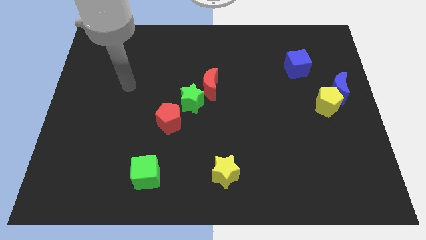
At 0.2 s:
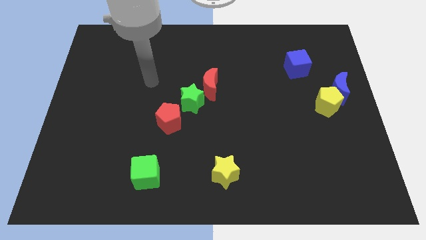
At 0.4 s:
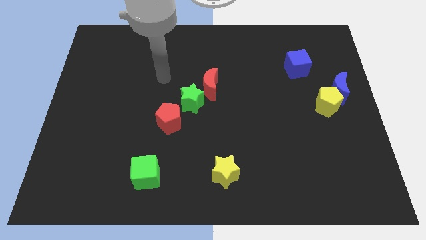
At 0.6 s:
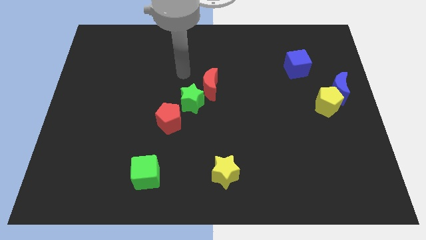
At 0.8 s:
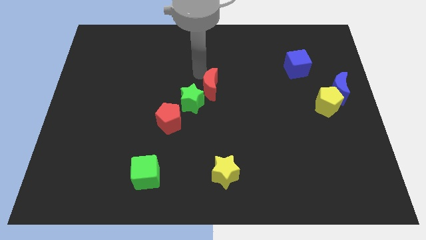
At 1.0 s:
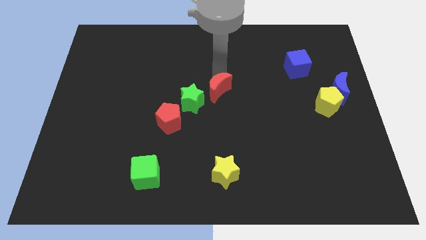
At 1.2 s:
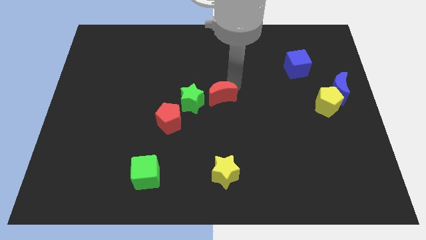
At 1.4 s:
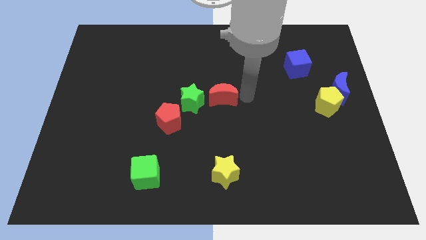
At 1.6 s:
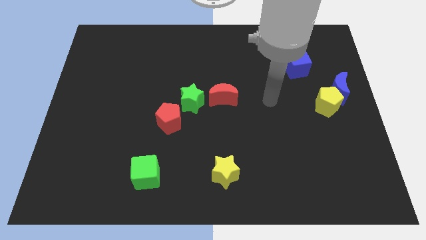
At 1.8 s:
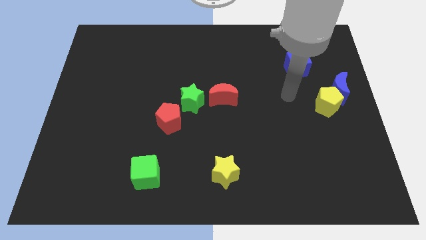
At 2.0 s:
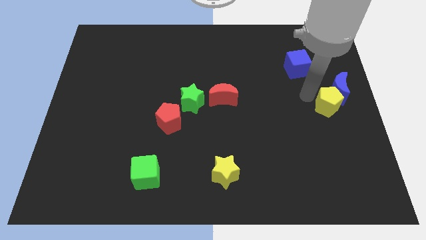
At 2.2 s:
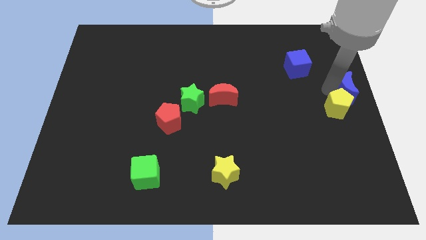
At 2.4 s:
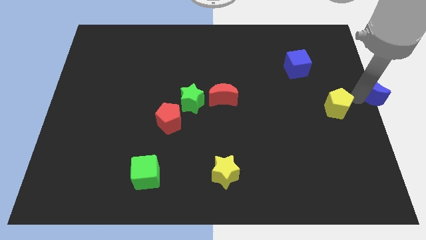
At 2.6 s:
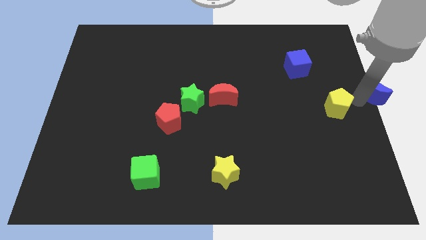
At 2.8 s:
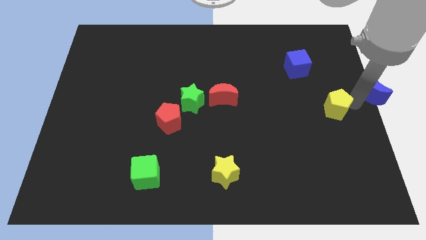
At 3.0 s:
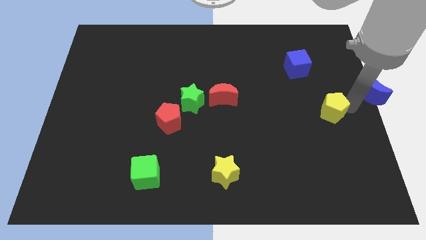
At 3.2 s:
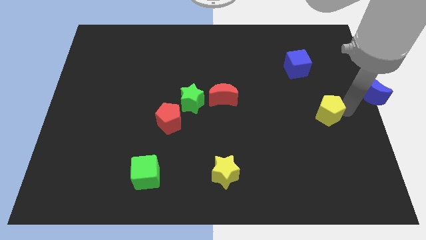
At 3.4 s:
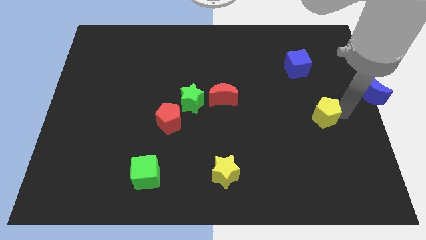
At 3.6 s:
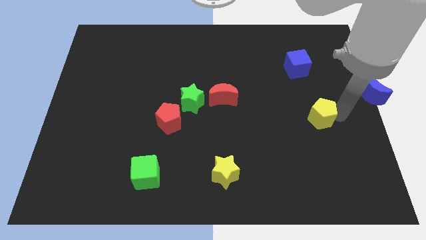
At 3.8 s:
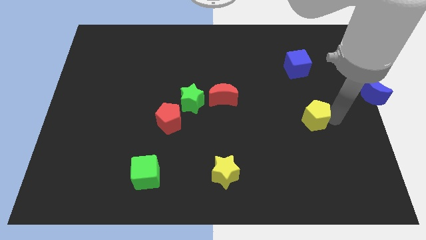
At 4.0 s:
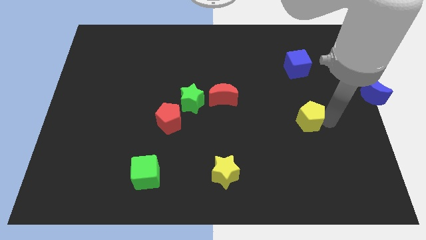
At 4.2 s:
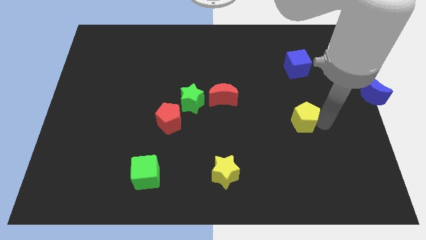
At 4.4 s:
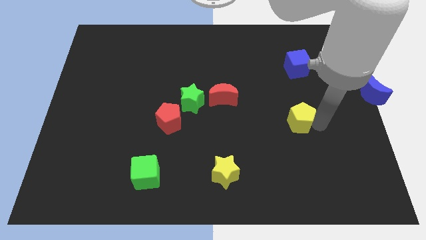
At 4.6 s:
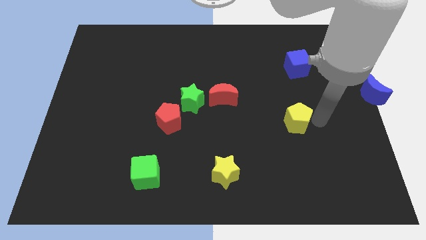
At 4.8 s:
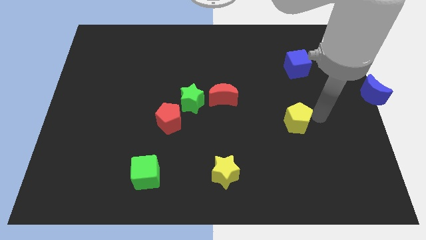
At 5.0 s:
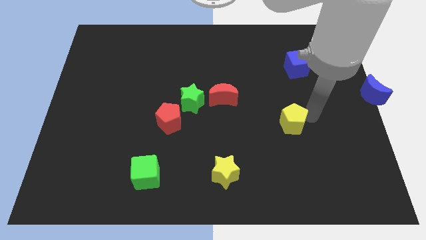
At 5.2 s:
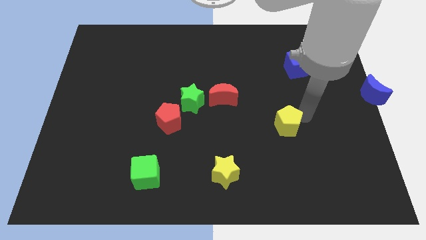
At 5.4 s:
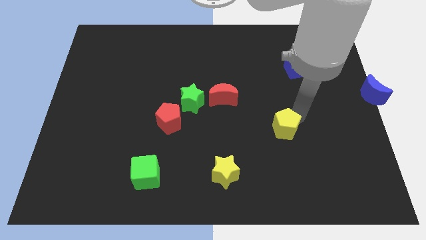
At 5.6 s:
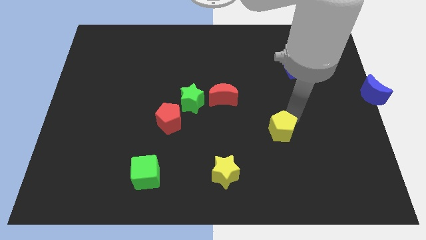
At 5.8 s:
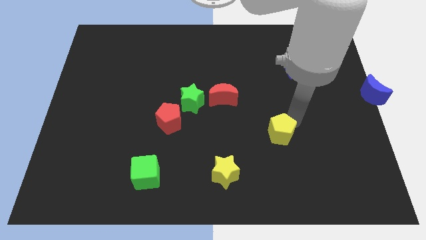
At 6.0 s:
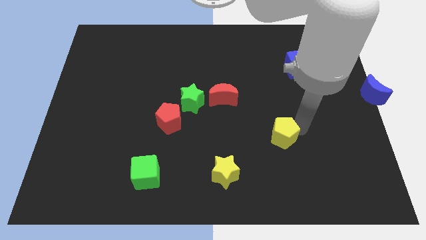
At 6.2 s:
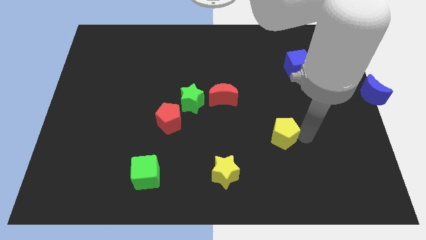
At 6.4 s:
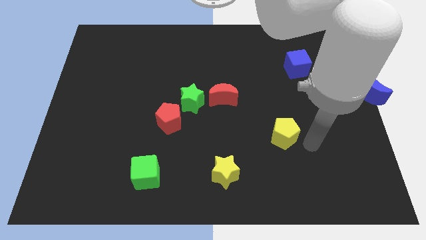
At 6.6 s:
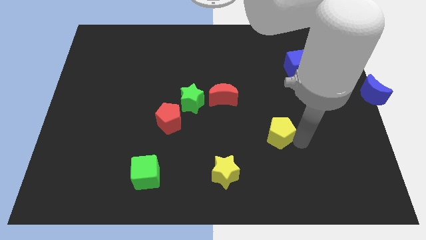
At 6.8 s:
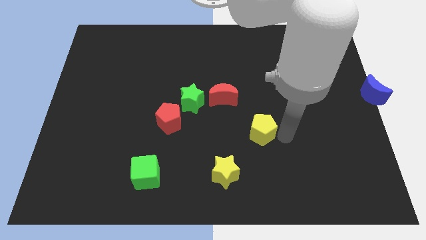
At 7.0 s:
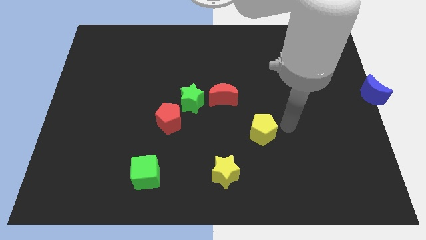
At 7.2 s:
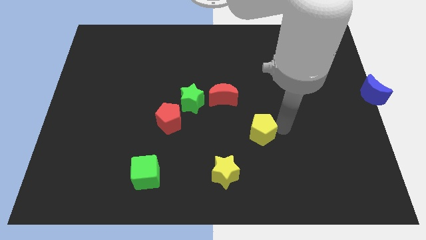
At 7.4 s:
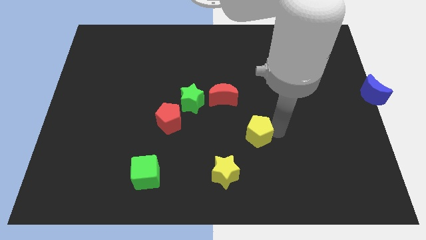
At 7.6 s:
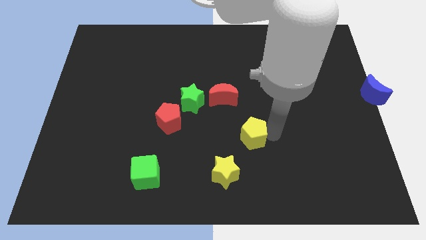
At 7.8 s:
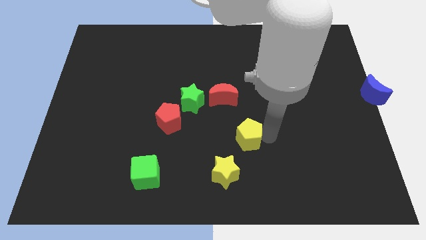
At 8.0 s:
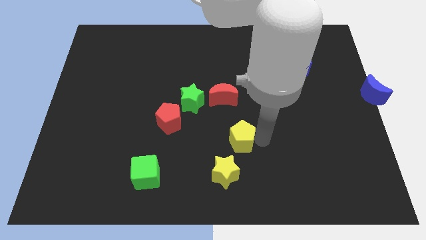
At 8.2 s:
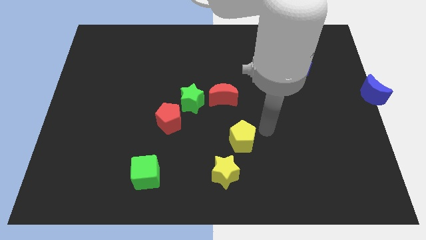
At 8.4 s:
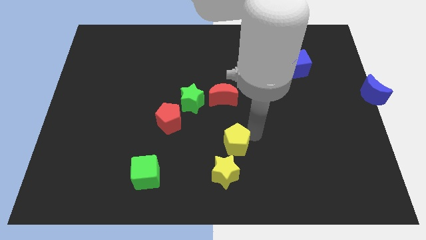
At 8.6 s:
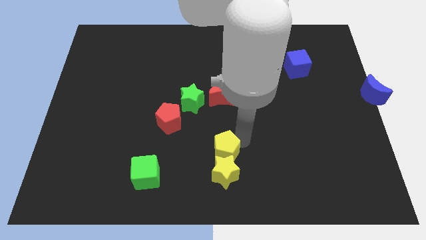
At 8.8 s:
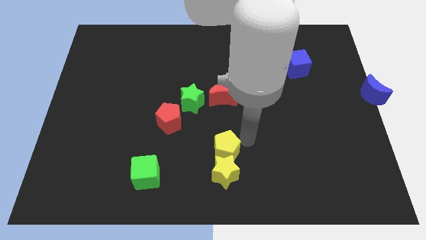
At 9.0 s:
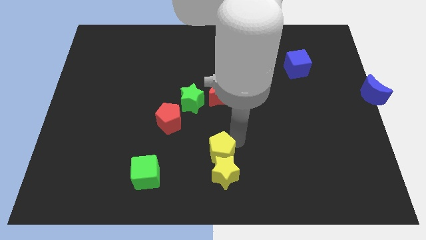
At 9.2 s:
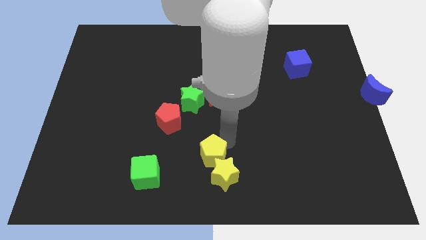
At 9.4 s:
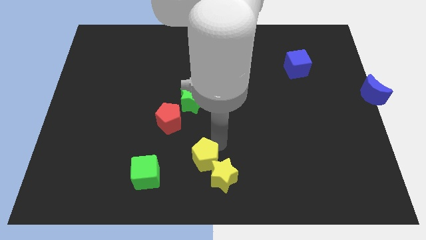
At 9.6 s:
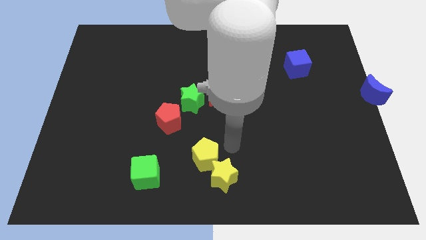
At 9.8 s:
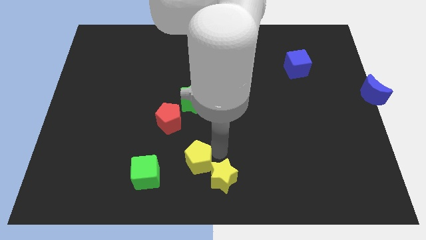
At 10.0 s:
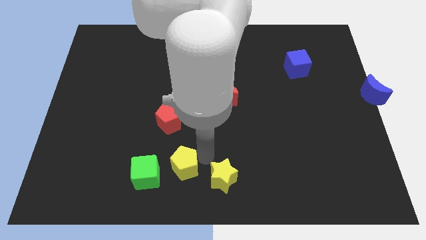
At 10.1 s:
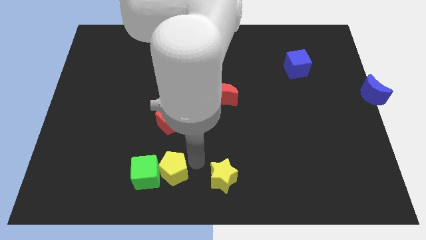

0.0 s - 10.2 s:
push the yellow pentagon close to the green cube

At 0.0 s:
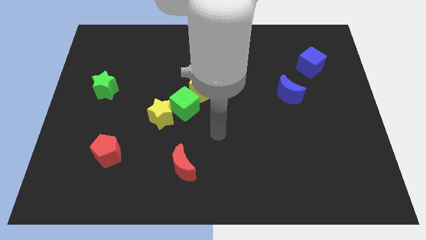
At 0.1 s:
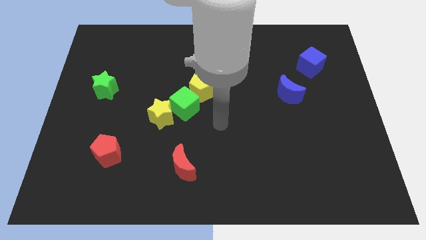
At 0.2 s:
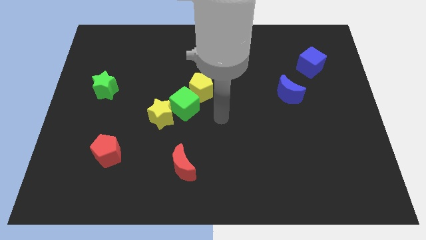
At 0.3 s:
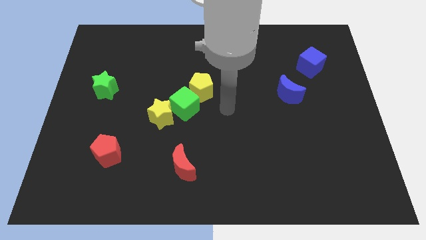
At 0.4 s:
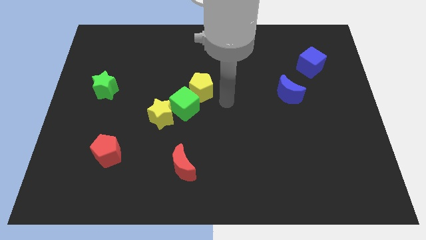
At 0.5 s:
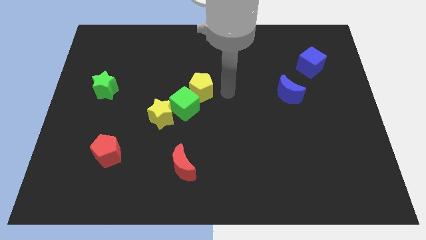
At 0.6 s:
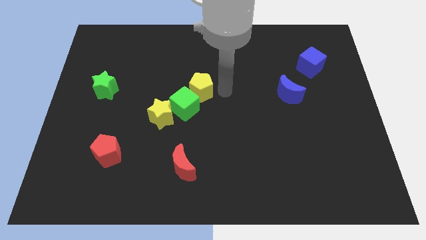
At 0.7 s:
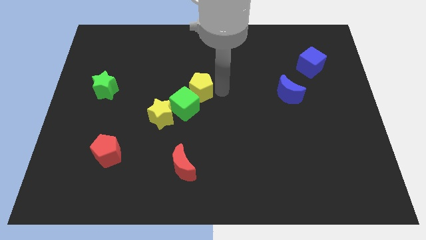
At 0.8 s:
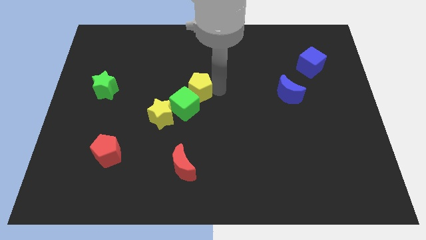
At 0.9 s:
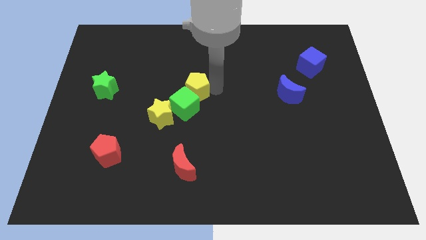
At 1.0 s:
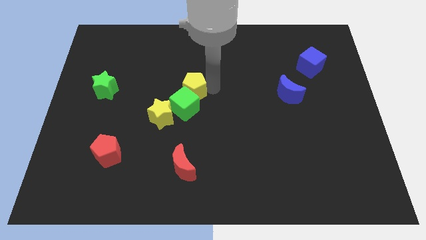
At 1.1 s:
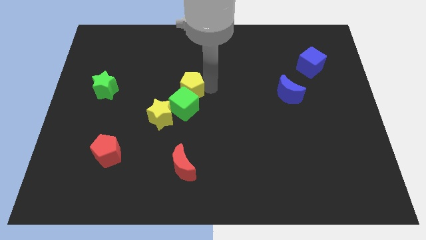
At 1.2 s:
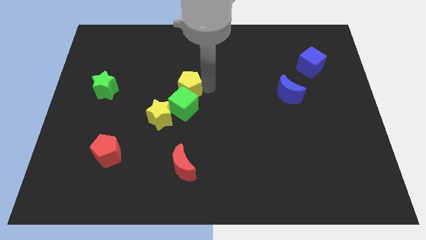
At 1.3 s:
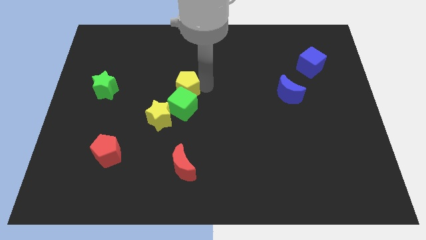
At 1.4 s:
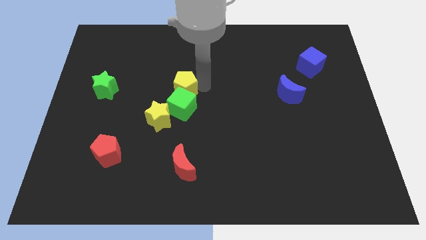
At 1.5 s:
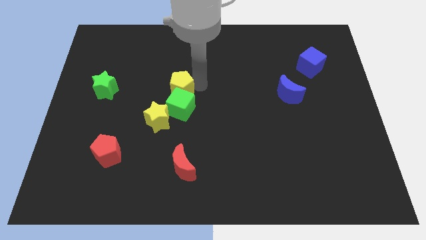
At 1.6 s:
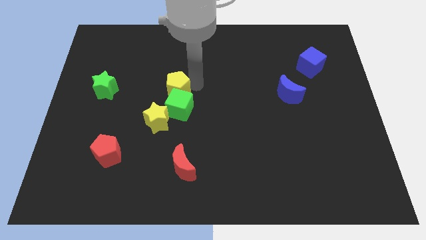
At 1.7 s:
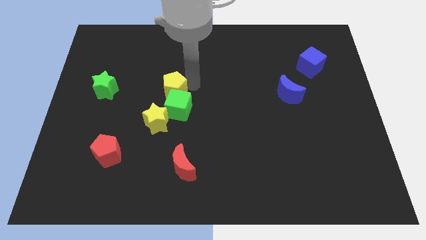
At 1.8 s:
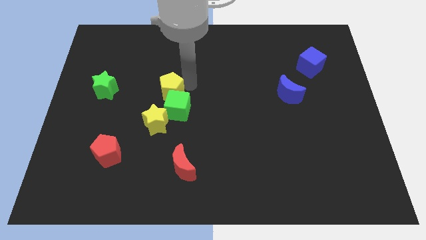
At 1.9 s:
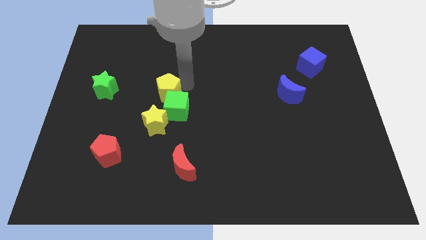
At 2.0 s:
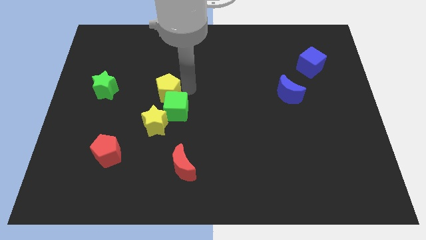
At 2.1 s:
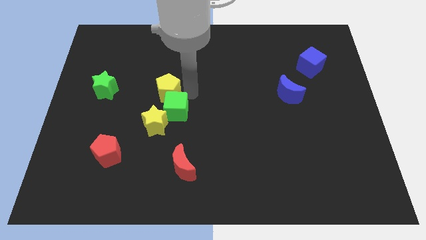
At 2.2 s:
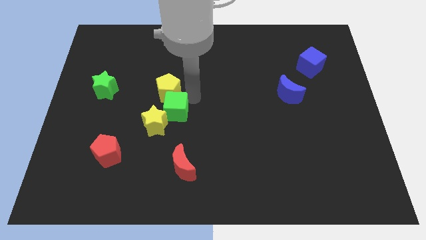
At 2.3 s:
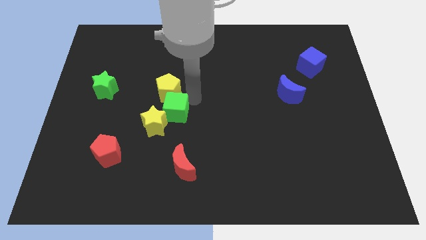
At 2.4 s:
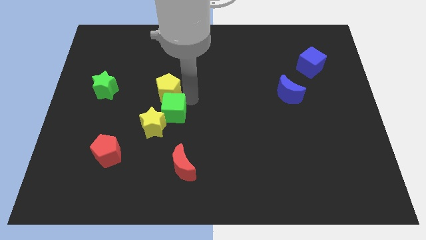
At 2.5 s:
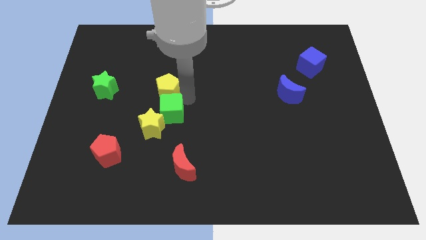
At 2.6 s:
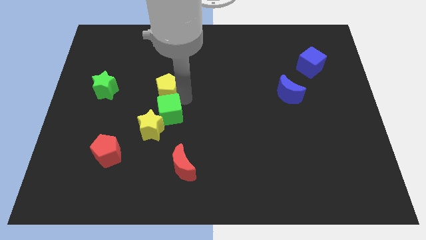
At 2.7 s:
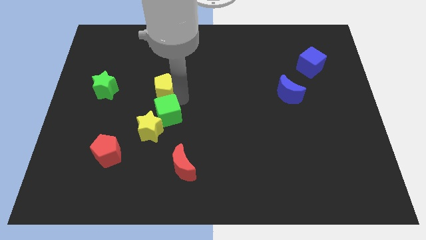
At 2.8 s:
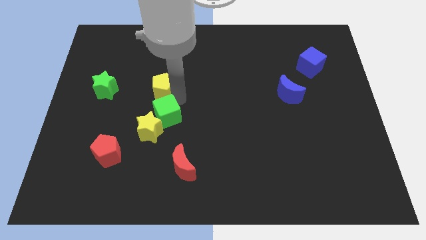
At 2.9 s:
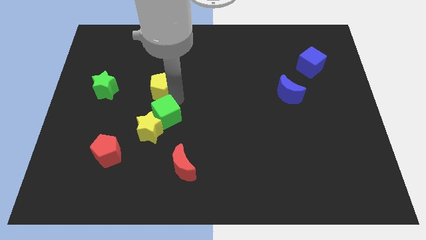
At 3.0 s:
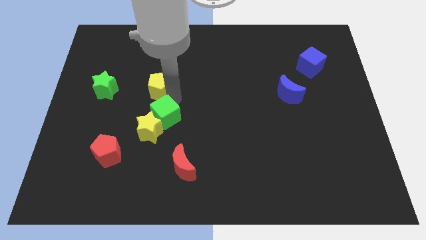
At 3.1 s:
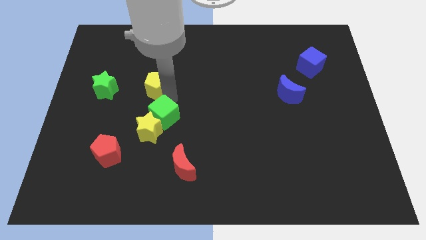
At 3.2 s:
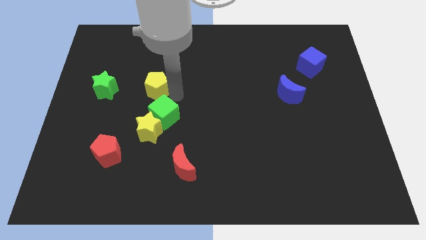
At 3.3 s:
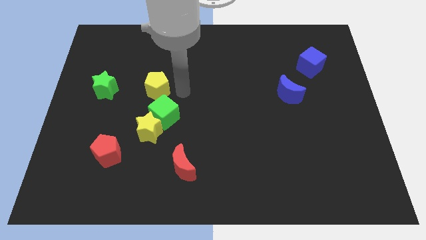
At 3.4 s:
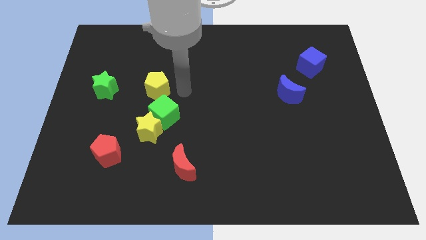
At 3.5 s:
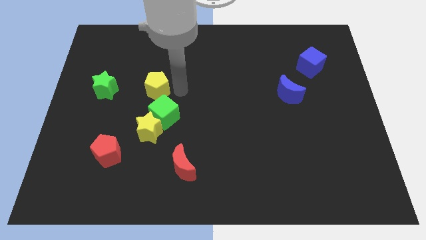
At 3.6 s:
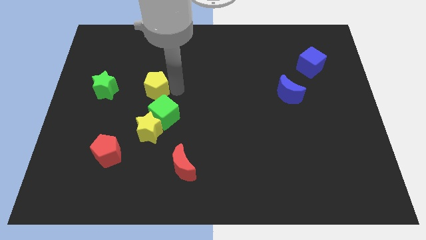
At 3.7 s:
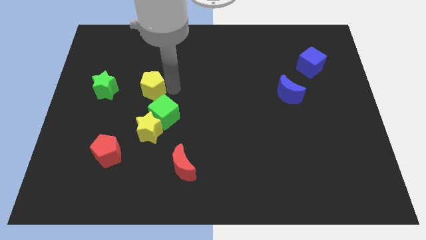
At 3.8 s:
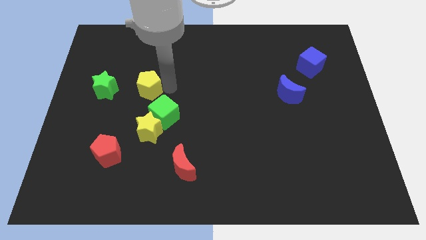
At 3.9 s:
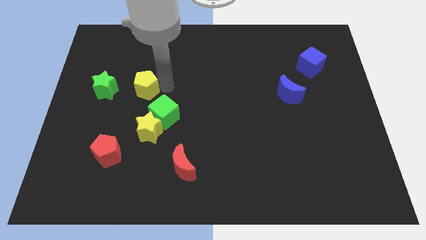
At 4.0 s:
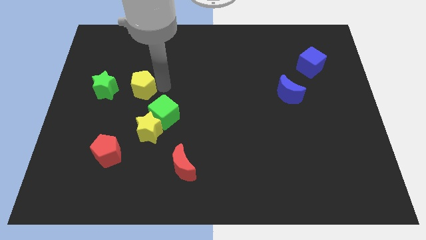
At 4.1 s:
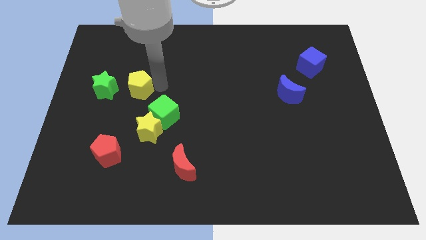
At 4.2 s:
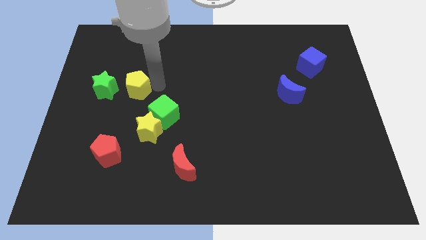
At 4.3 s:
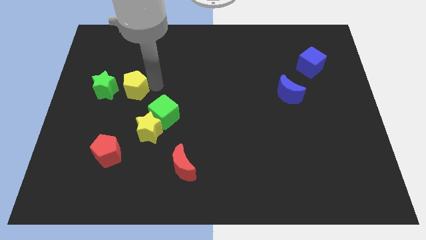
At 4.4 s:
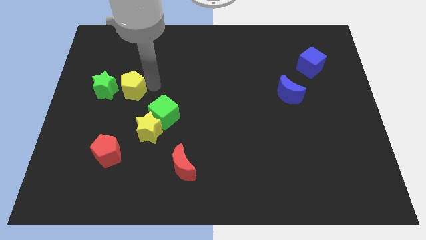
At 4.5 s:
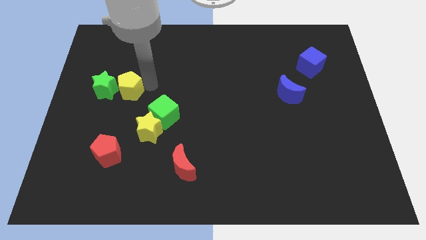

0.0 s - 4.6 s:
push the yellow pentagon to the green star
